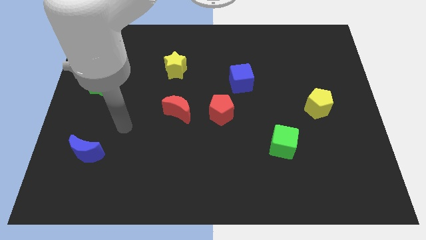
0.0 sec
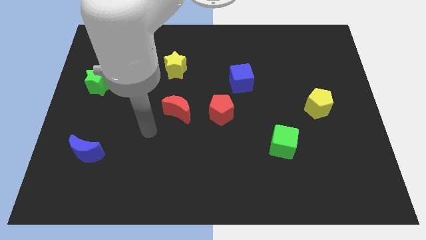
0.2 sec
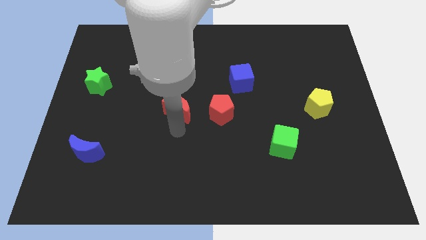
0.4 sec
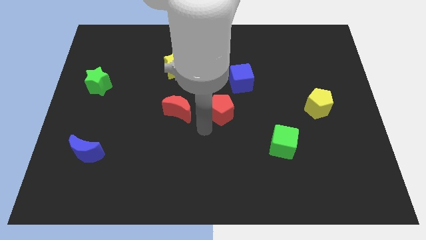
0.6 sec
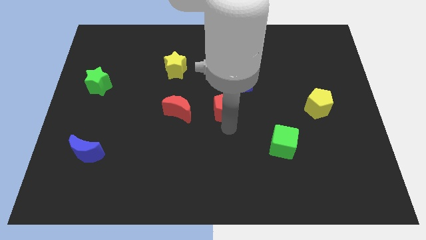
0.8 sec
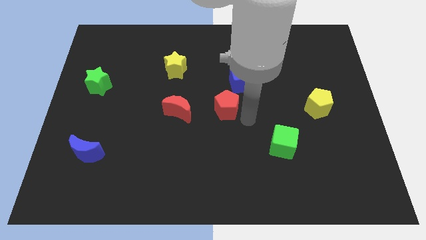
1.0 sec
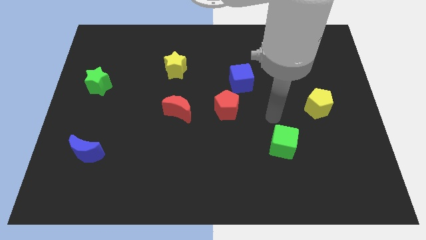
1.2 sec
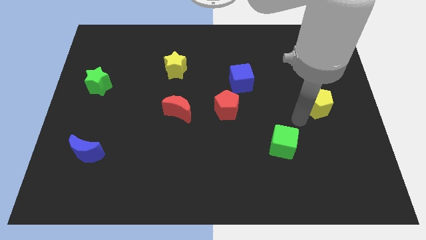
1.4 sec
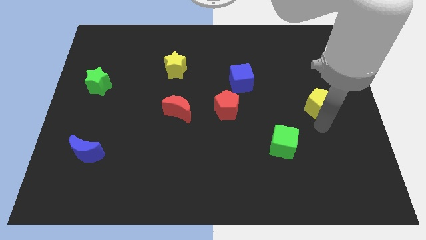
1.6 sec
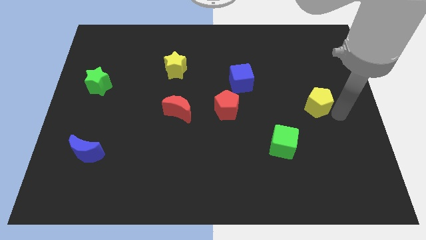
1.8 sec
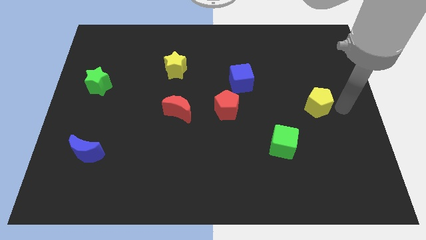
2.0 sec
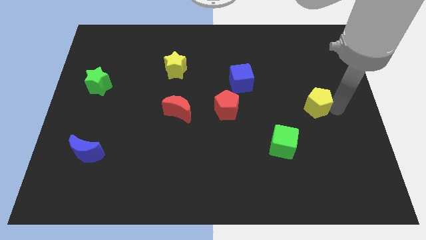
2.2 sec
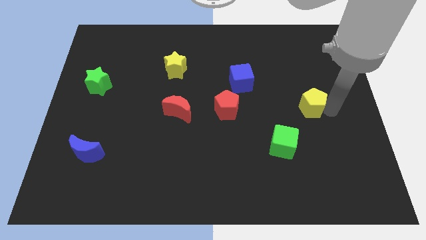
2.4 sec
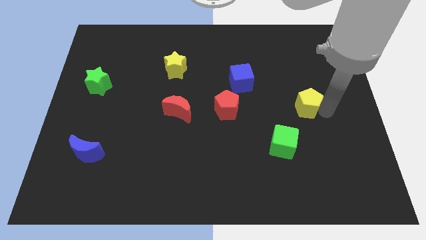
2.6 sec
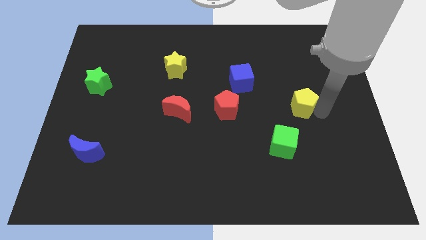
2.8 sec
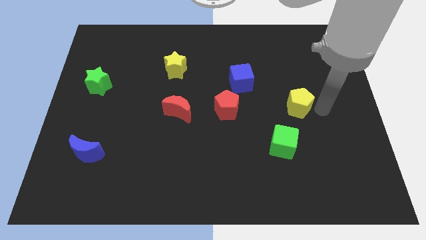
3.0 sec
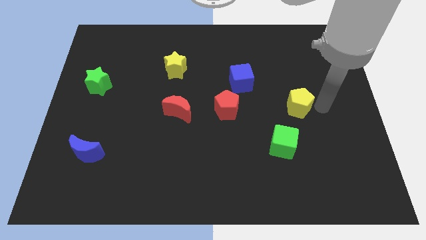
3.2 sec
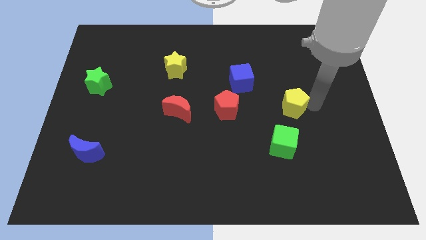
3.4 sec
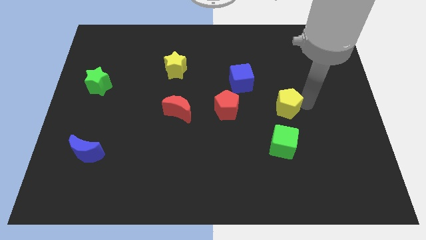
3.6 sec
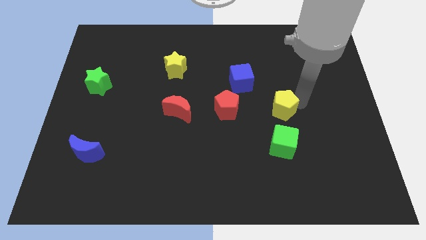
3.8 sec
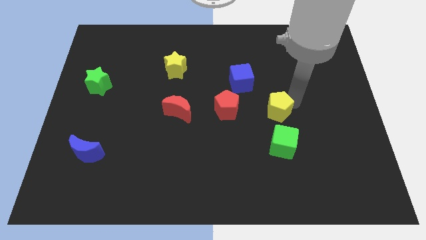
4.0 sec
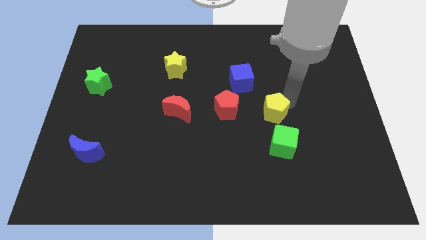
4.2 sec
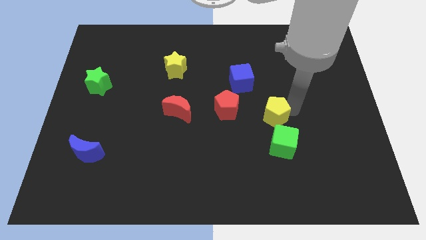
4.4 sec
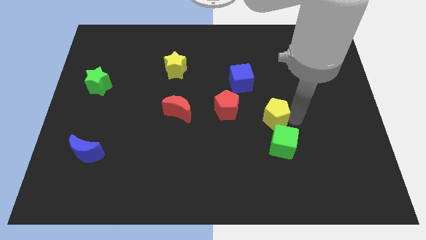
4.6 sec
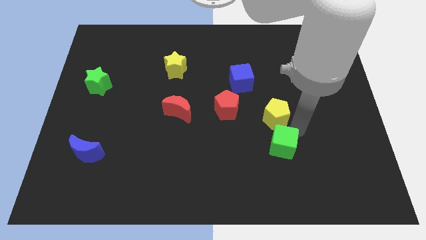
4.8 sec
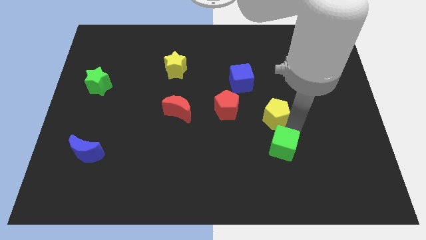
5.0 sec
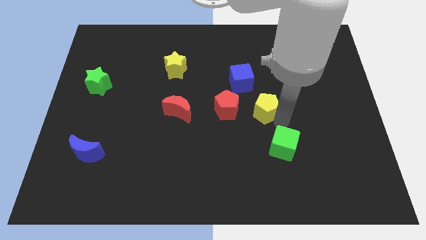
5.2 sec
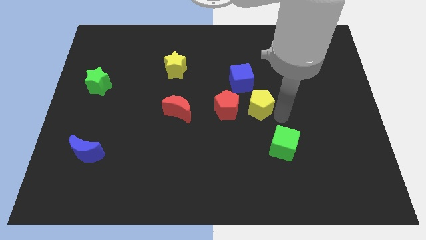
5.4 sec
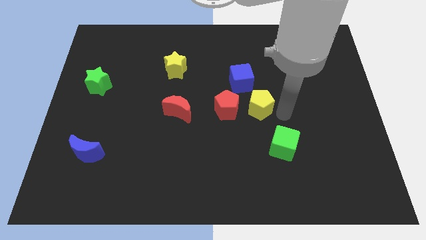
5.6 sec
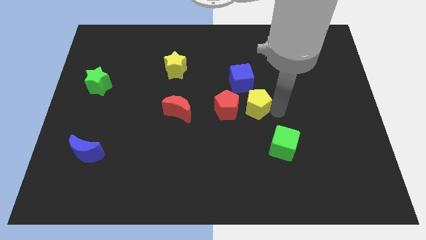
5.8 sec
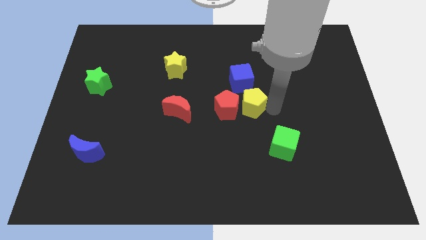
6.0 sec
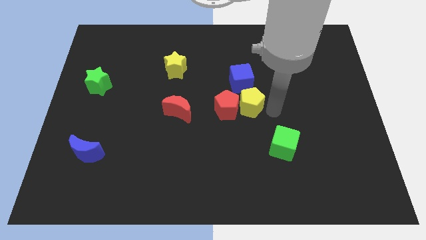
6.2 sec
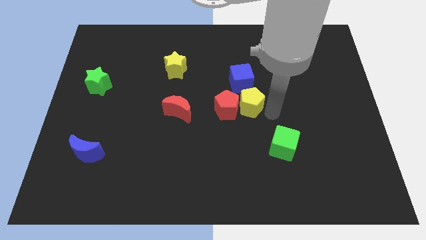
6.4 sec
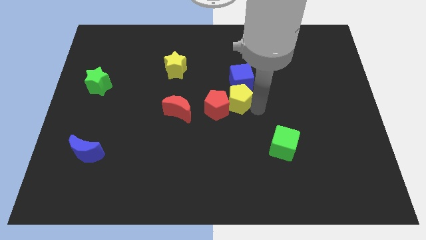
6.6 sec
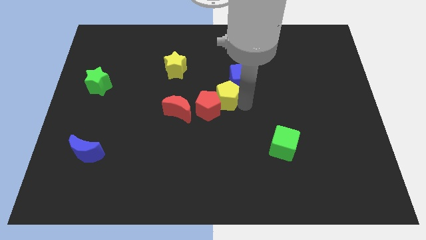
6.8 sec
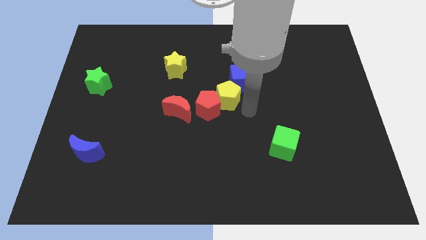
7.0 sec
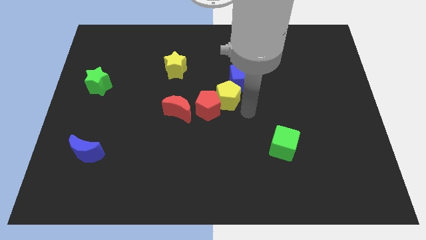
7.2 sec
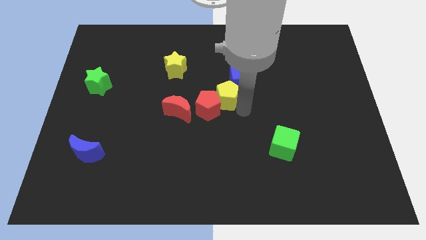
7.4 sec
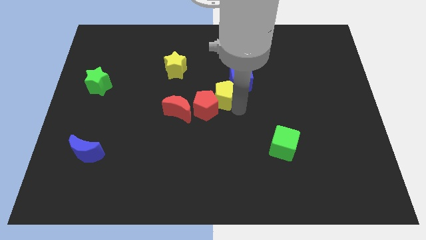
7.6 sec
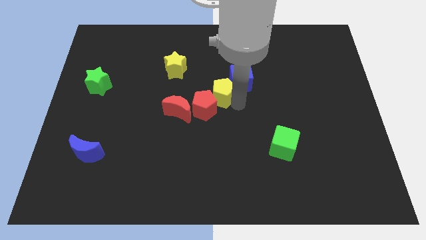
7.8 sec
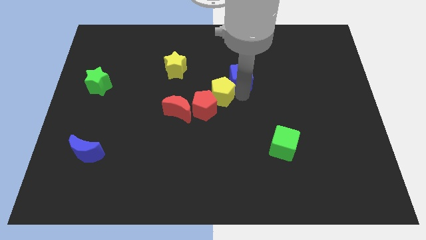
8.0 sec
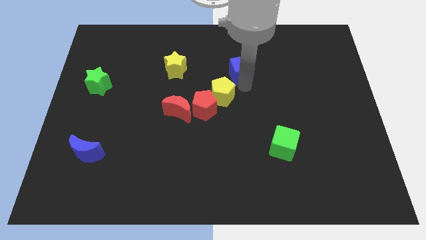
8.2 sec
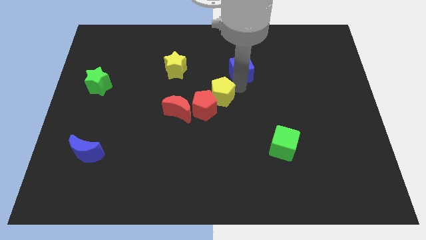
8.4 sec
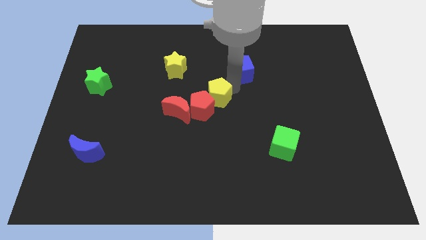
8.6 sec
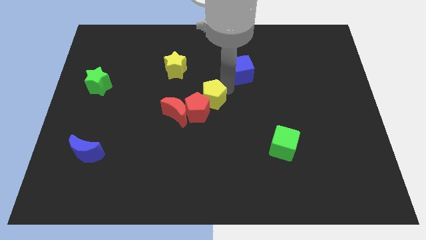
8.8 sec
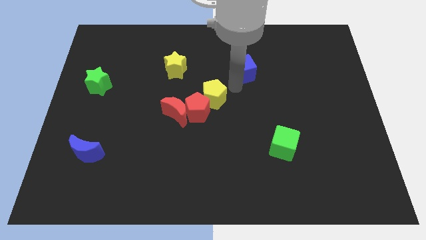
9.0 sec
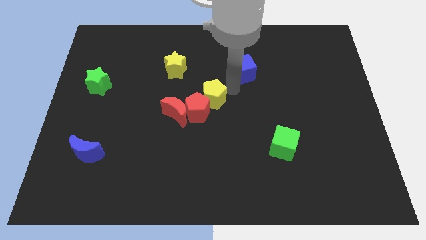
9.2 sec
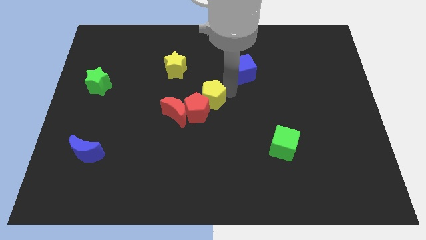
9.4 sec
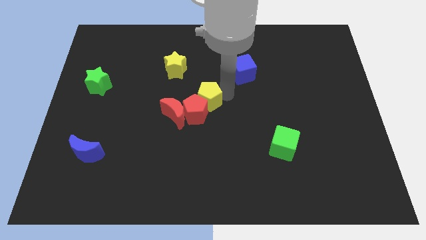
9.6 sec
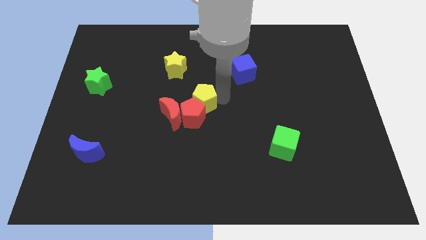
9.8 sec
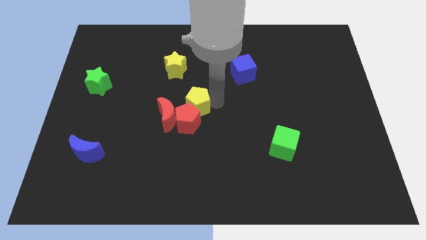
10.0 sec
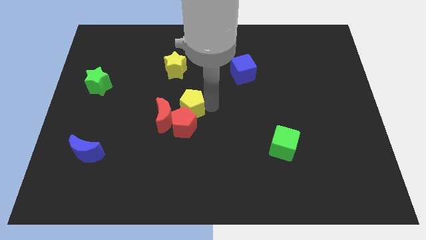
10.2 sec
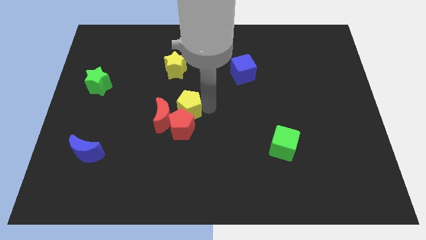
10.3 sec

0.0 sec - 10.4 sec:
push the yellow pentagon close to the red moon

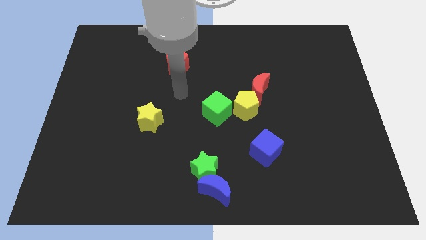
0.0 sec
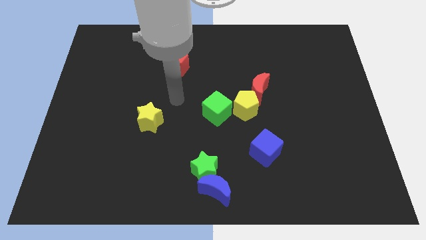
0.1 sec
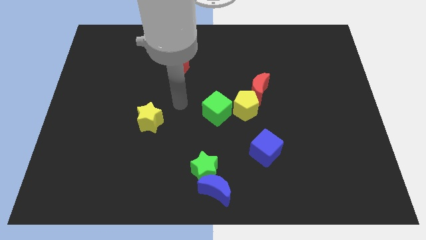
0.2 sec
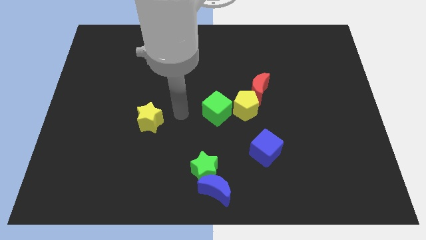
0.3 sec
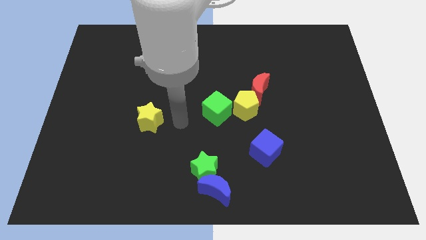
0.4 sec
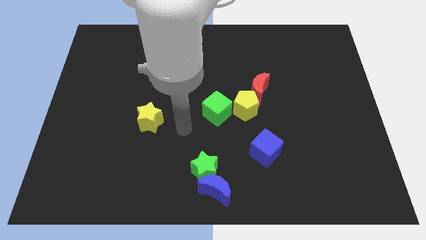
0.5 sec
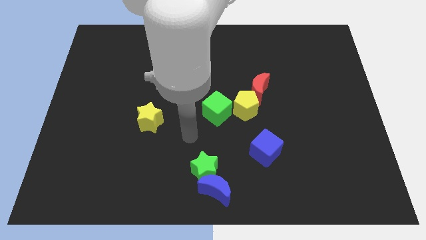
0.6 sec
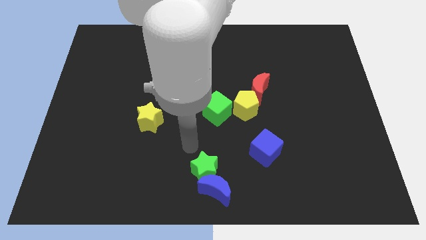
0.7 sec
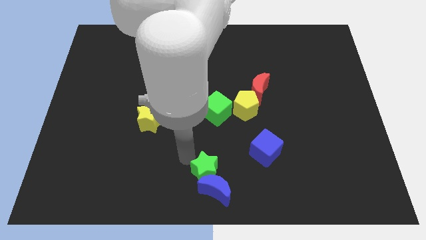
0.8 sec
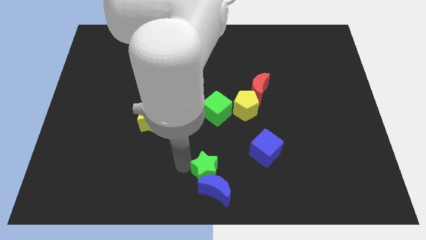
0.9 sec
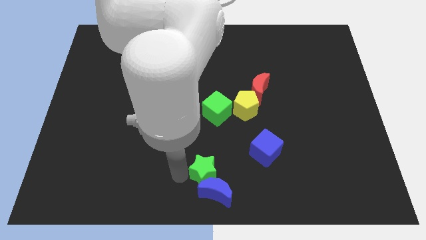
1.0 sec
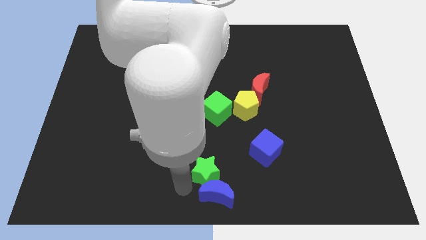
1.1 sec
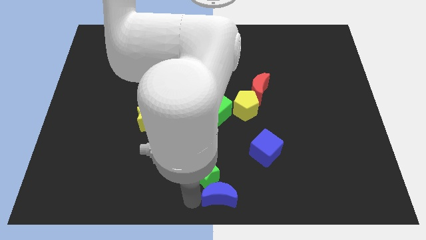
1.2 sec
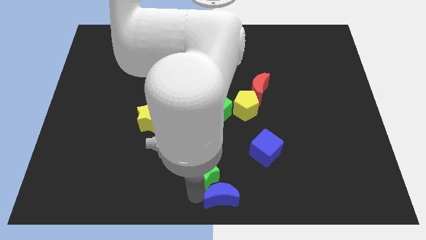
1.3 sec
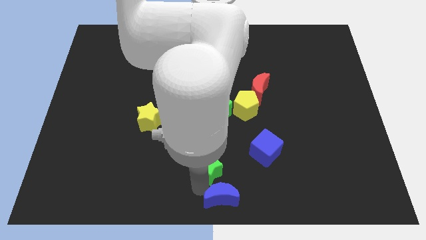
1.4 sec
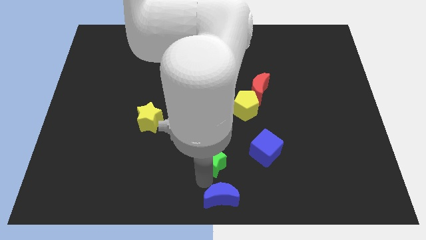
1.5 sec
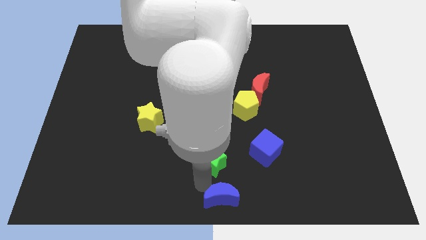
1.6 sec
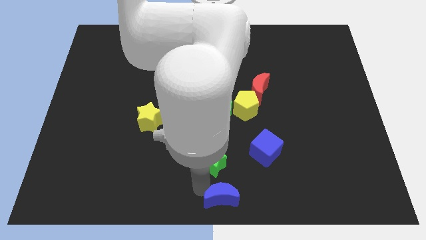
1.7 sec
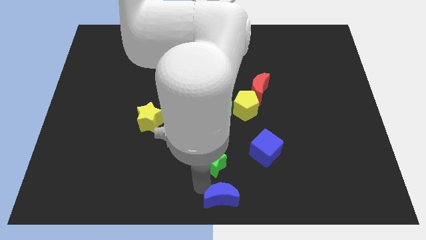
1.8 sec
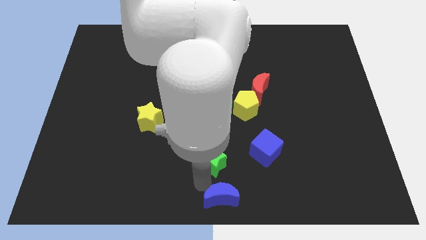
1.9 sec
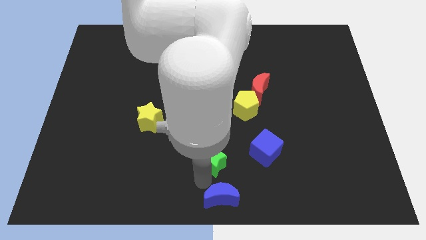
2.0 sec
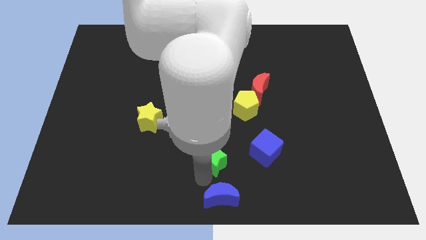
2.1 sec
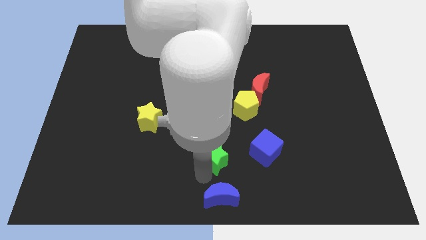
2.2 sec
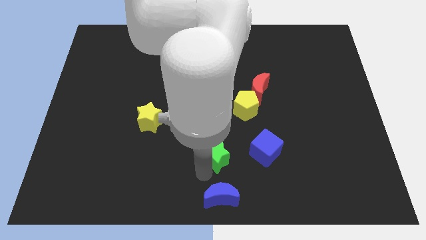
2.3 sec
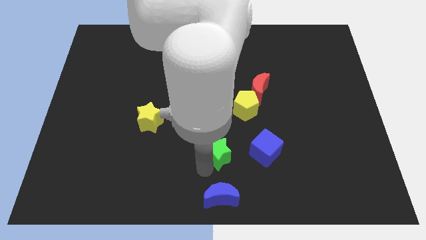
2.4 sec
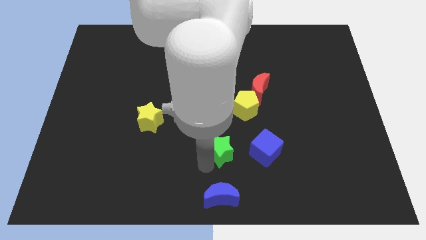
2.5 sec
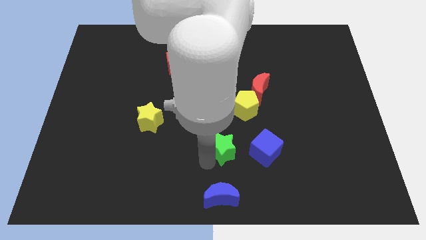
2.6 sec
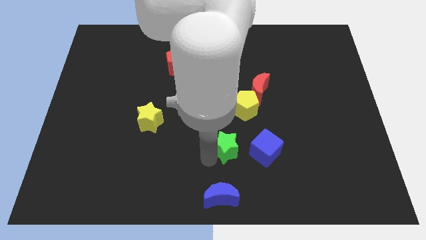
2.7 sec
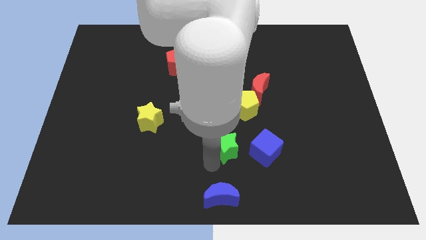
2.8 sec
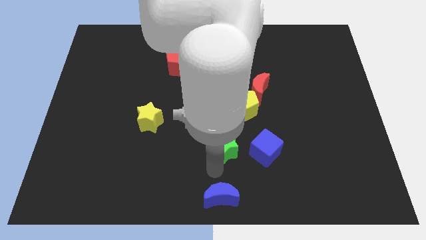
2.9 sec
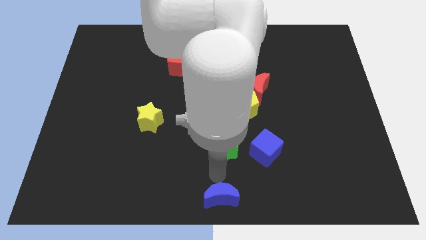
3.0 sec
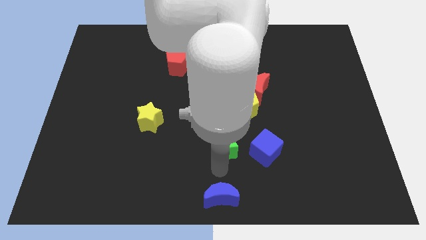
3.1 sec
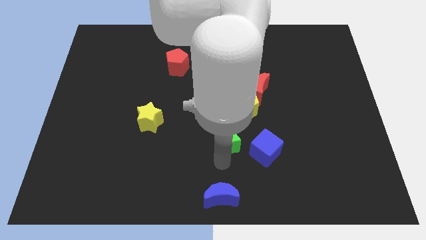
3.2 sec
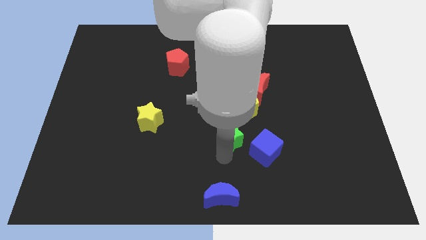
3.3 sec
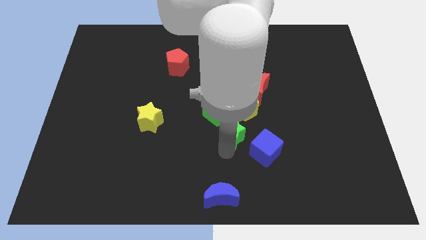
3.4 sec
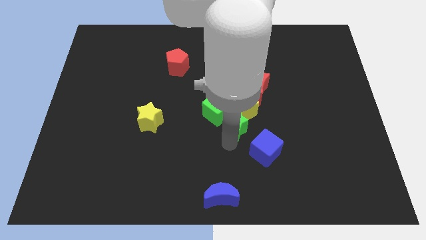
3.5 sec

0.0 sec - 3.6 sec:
slide the green star next to the yellow pentagon
